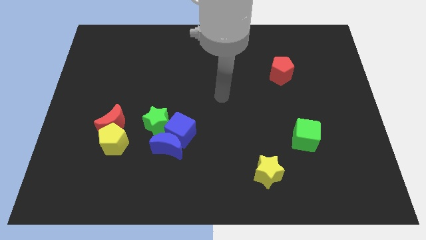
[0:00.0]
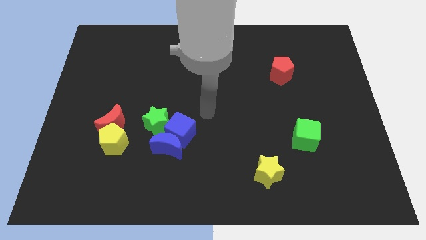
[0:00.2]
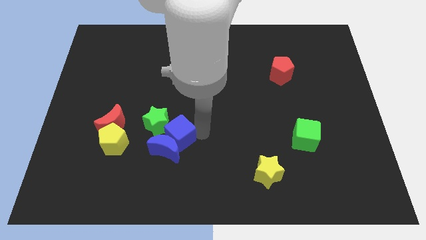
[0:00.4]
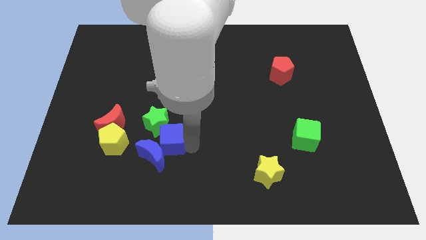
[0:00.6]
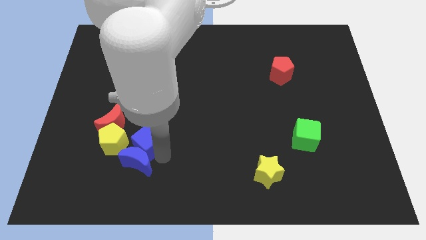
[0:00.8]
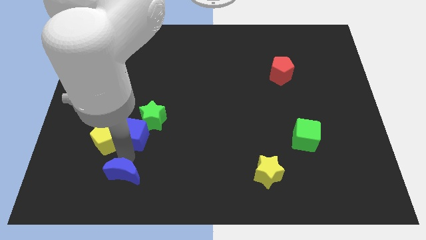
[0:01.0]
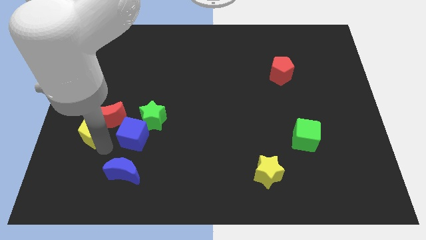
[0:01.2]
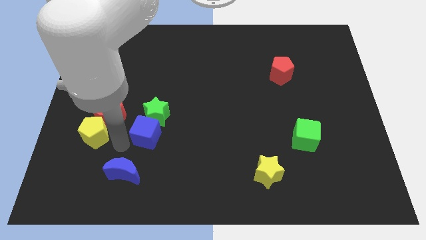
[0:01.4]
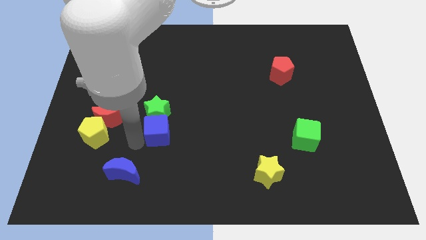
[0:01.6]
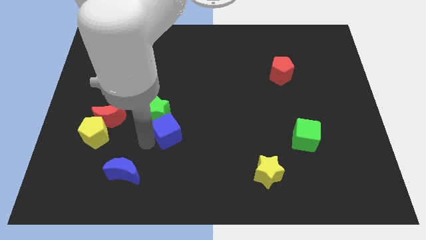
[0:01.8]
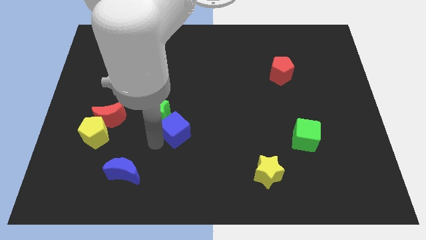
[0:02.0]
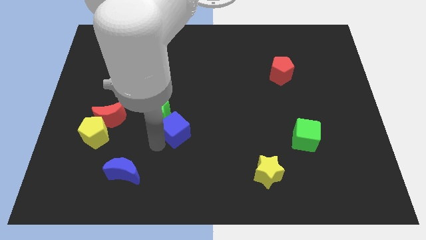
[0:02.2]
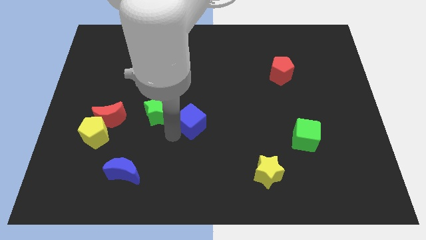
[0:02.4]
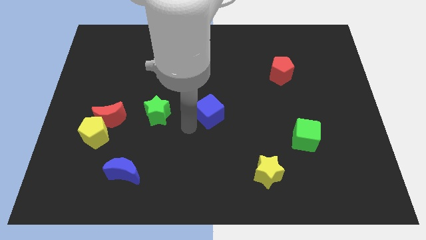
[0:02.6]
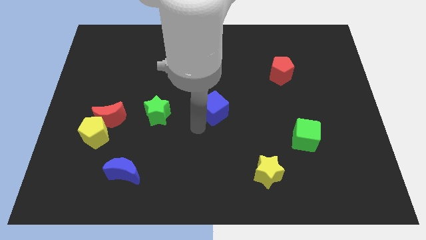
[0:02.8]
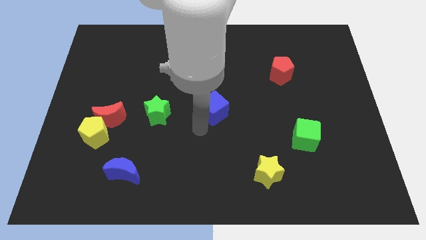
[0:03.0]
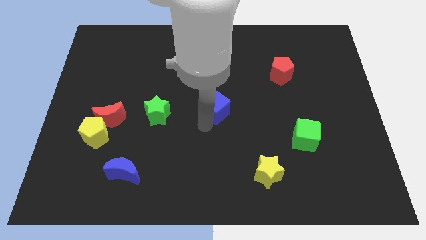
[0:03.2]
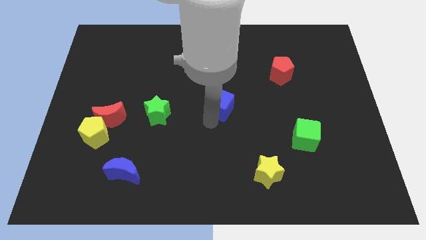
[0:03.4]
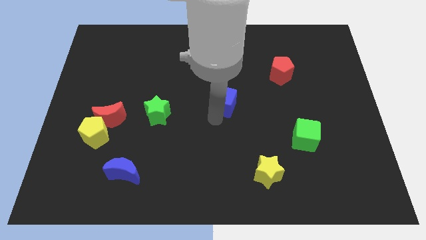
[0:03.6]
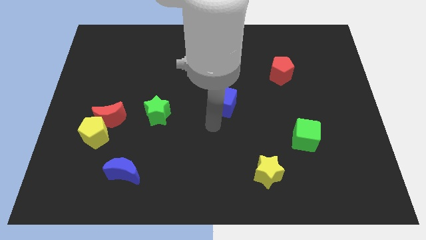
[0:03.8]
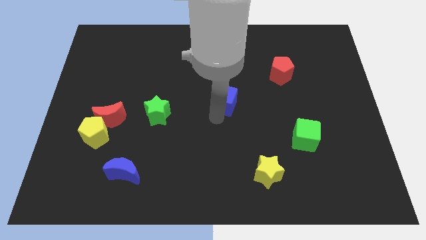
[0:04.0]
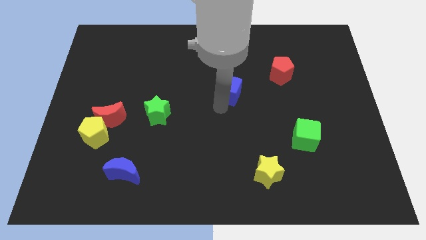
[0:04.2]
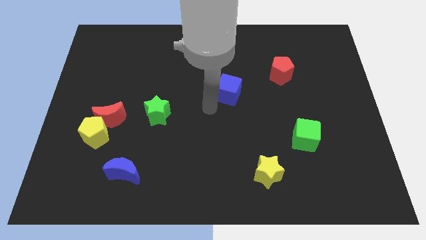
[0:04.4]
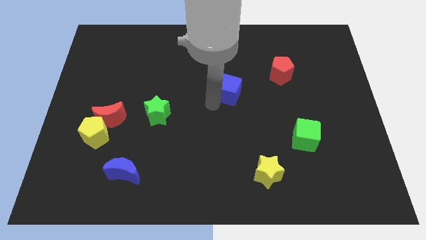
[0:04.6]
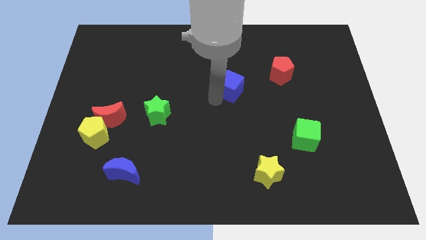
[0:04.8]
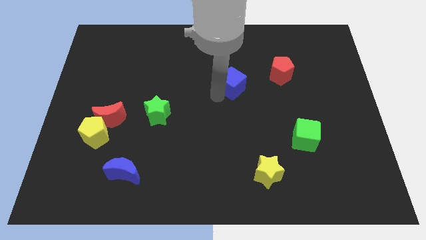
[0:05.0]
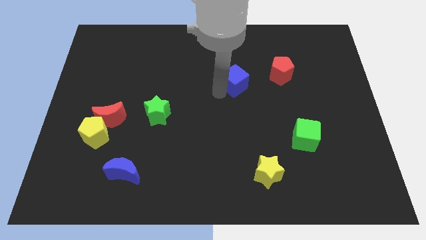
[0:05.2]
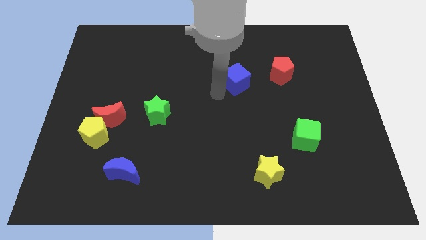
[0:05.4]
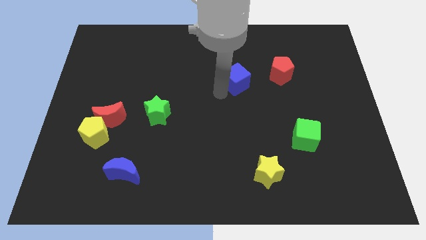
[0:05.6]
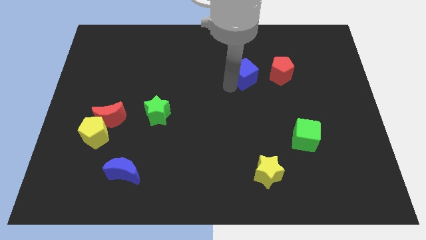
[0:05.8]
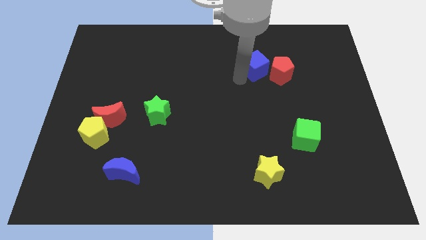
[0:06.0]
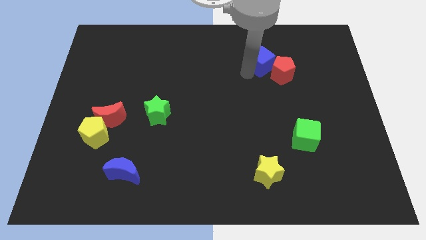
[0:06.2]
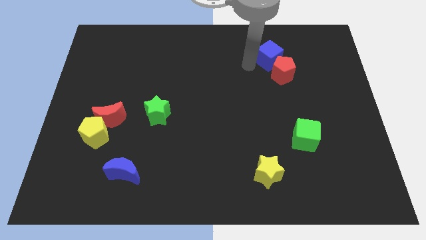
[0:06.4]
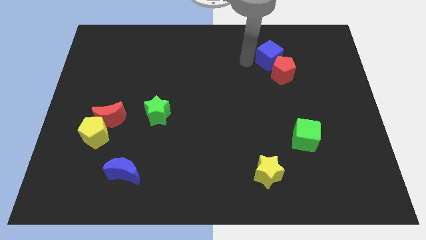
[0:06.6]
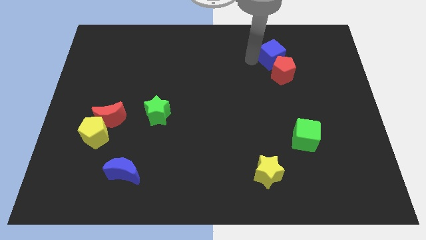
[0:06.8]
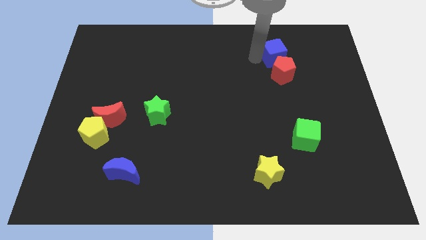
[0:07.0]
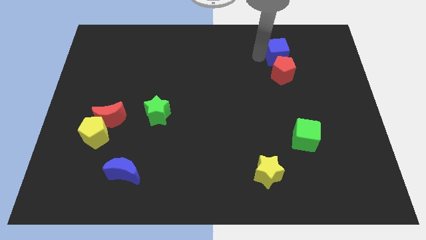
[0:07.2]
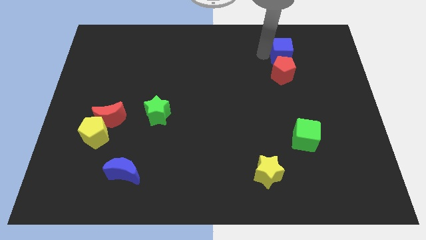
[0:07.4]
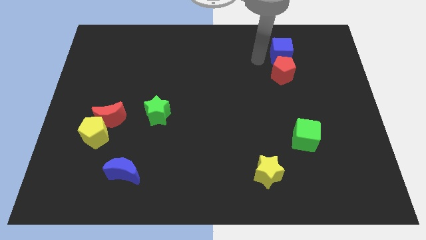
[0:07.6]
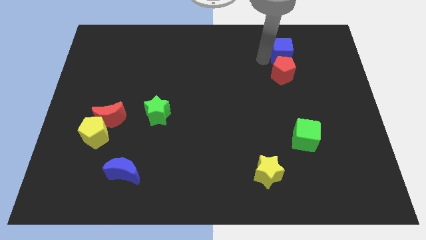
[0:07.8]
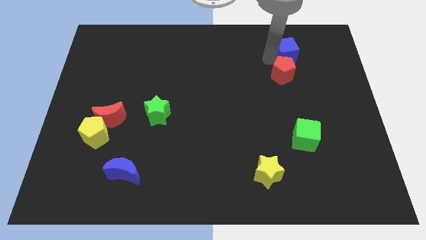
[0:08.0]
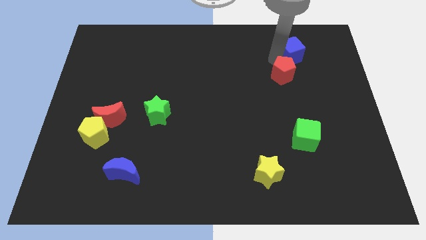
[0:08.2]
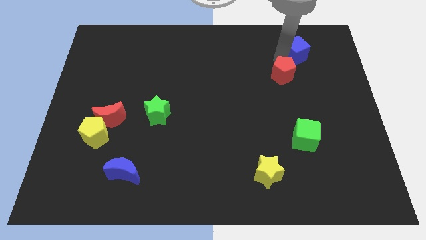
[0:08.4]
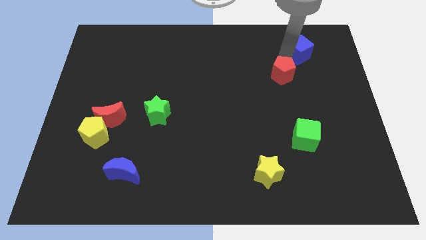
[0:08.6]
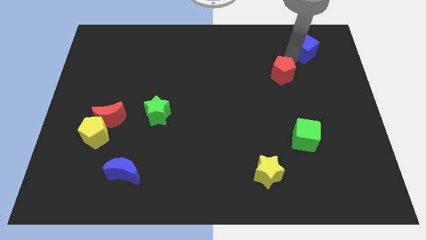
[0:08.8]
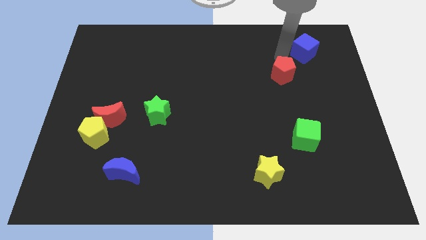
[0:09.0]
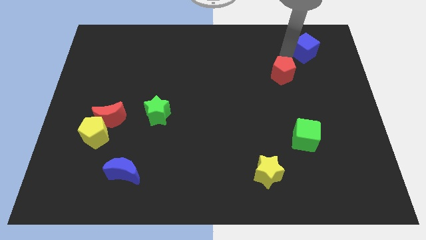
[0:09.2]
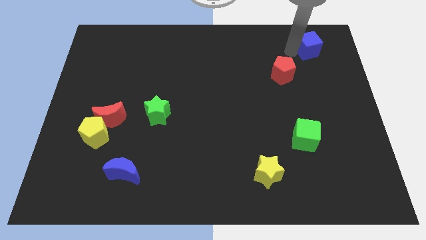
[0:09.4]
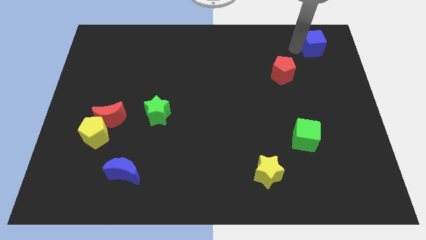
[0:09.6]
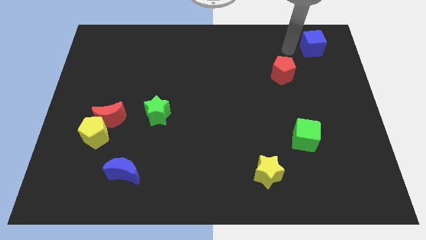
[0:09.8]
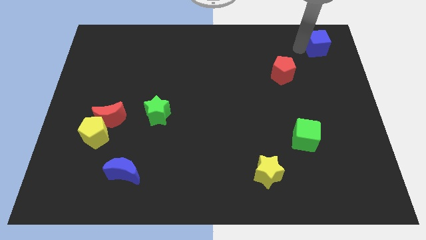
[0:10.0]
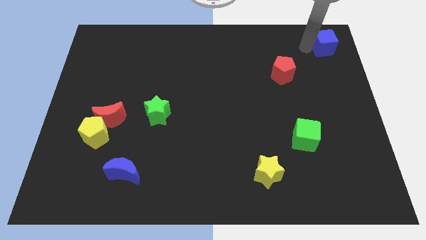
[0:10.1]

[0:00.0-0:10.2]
put the blue cube to the upper right corner

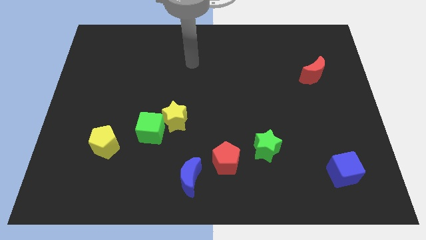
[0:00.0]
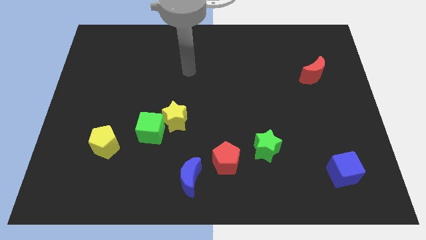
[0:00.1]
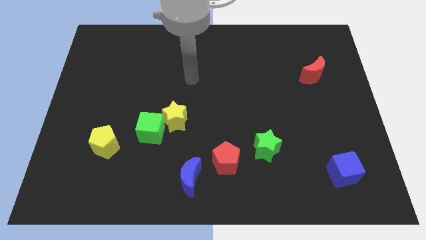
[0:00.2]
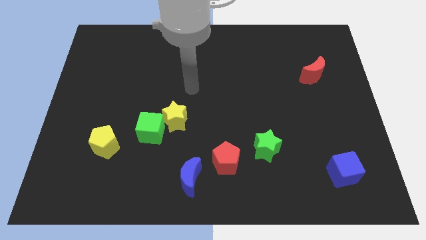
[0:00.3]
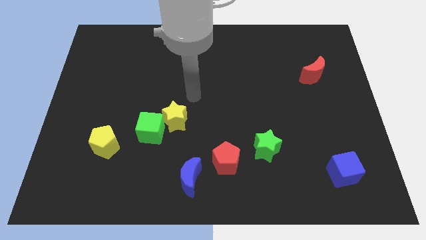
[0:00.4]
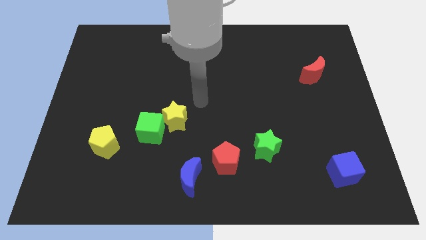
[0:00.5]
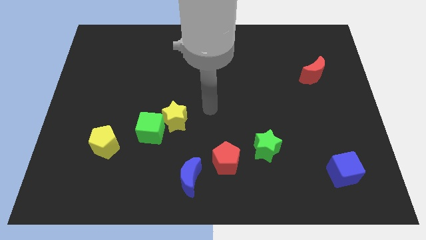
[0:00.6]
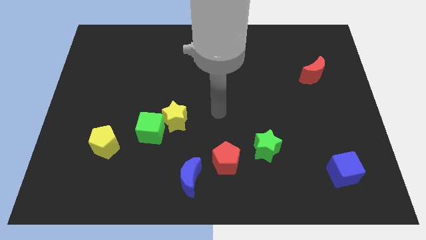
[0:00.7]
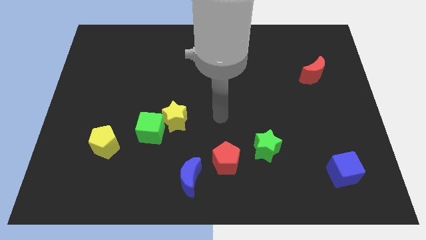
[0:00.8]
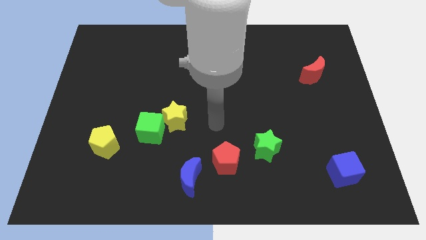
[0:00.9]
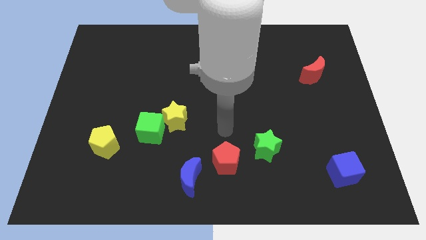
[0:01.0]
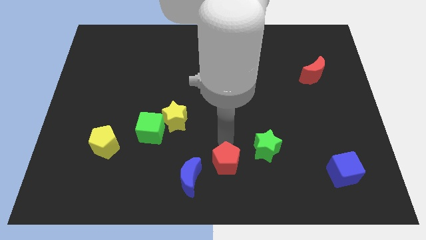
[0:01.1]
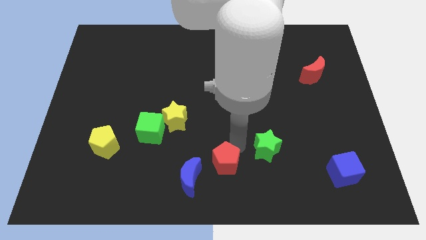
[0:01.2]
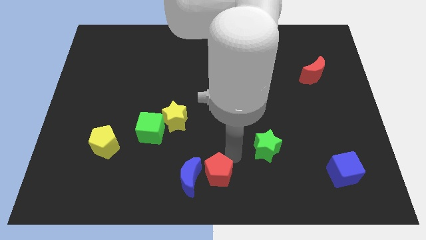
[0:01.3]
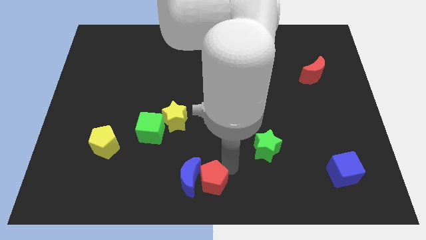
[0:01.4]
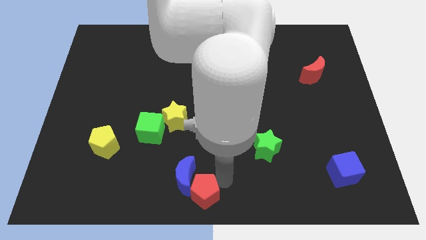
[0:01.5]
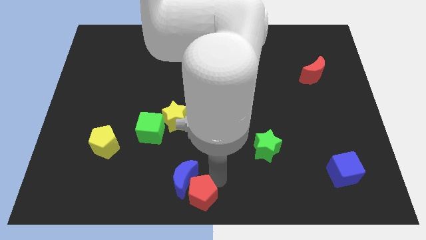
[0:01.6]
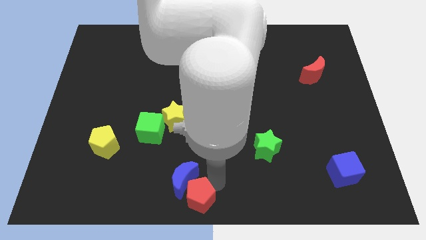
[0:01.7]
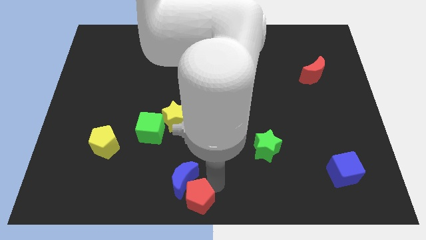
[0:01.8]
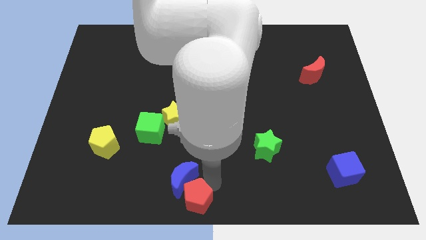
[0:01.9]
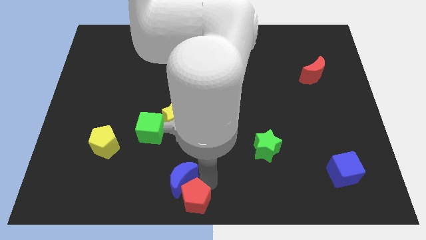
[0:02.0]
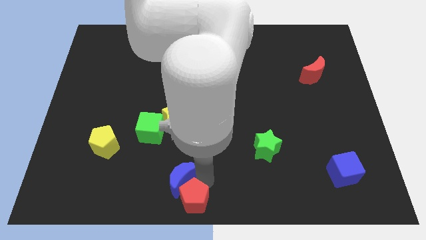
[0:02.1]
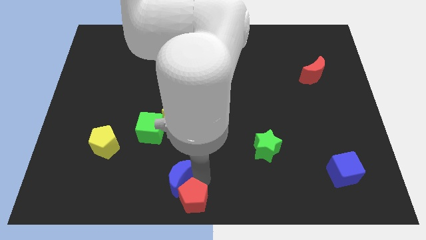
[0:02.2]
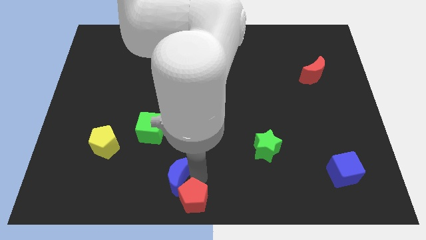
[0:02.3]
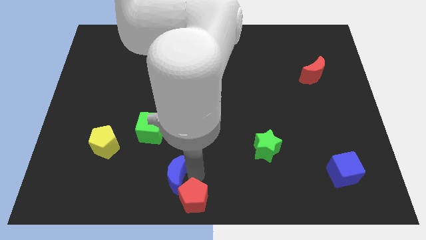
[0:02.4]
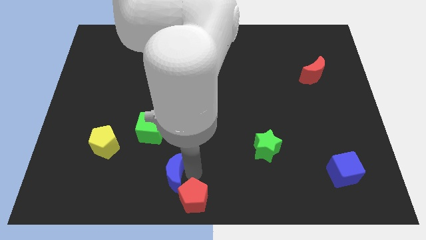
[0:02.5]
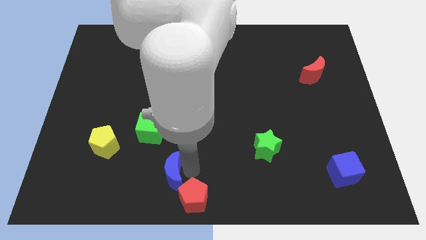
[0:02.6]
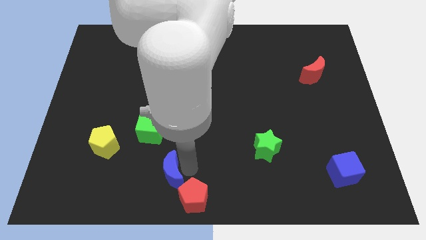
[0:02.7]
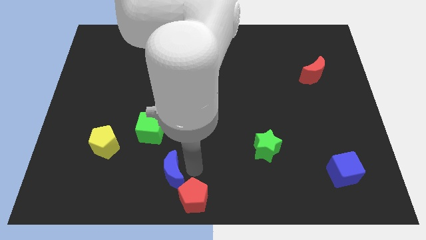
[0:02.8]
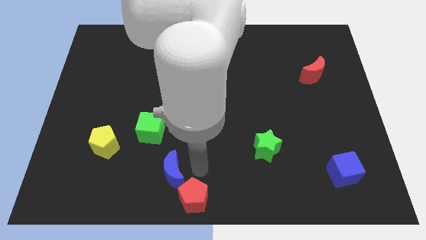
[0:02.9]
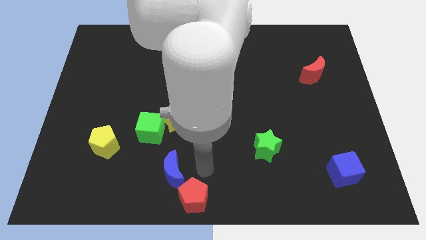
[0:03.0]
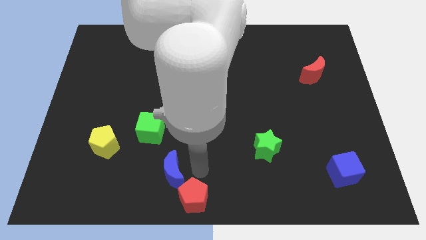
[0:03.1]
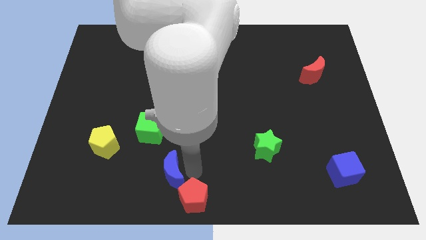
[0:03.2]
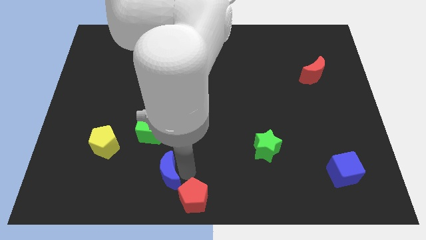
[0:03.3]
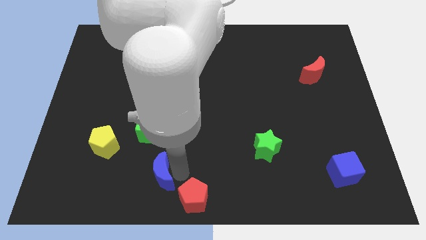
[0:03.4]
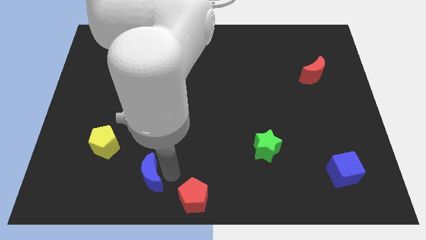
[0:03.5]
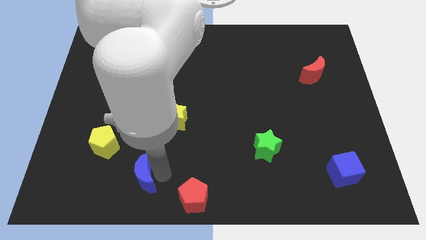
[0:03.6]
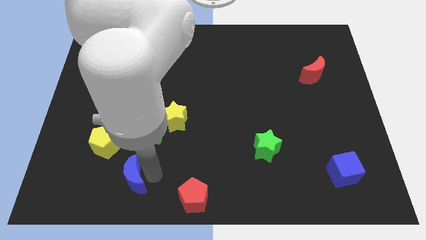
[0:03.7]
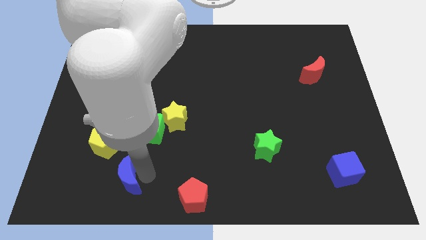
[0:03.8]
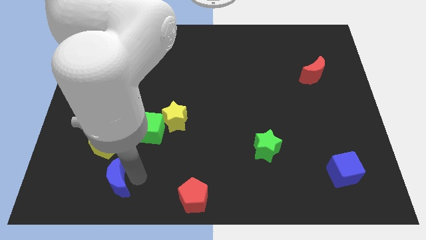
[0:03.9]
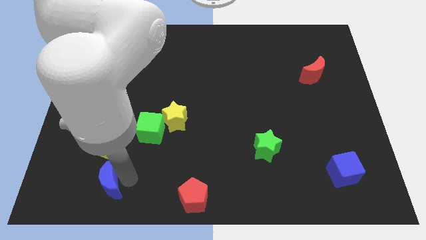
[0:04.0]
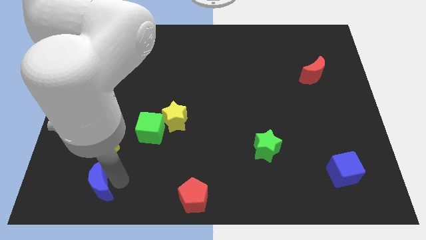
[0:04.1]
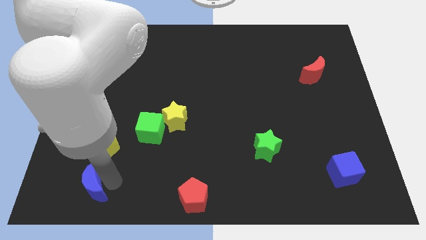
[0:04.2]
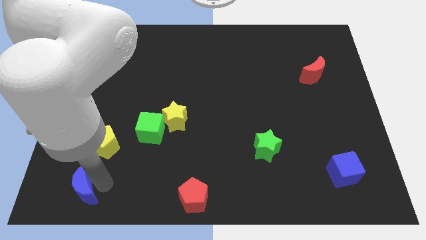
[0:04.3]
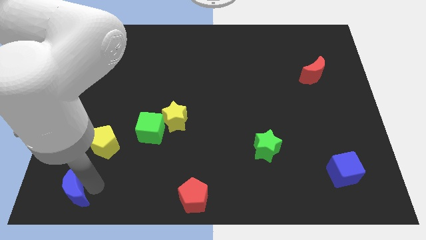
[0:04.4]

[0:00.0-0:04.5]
push the blue moon to the bottom left
